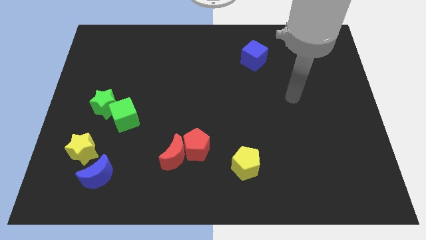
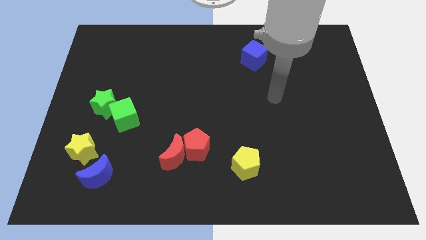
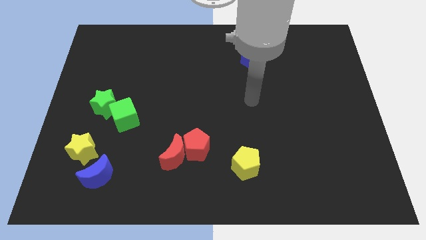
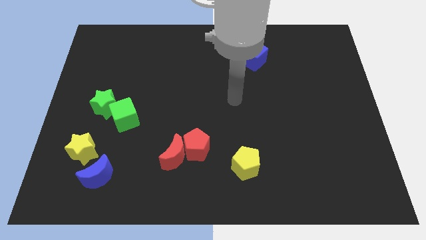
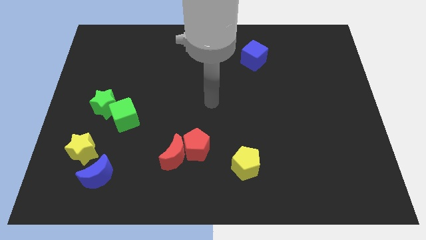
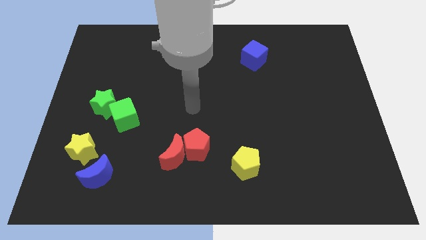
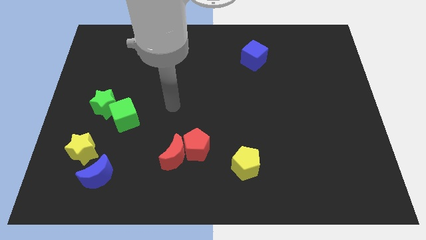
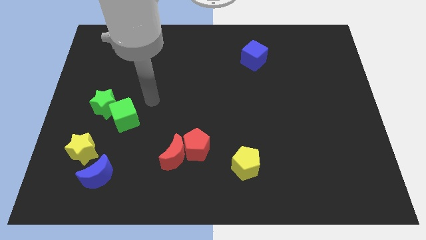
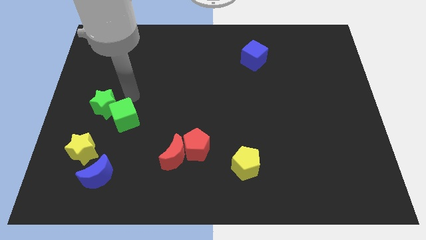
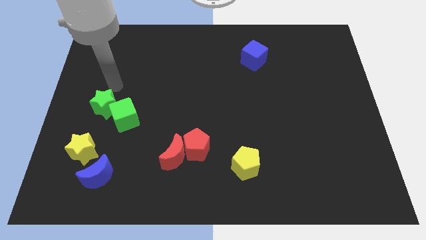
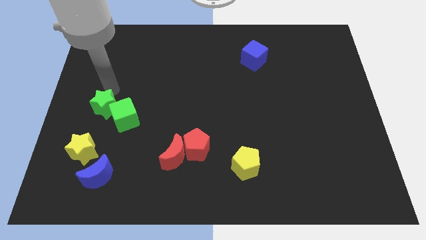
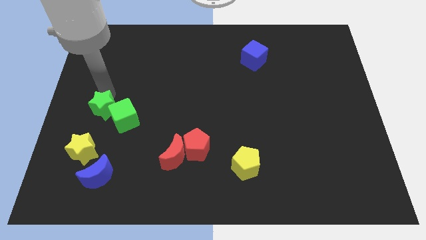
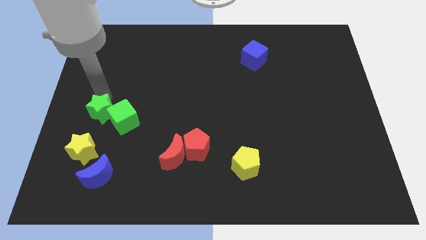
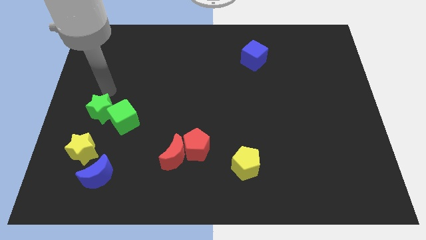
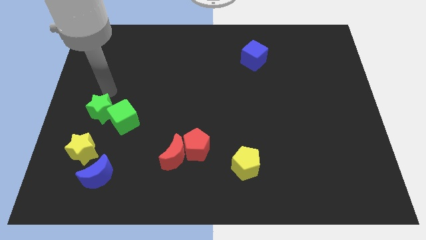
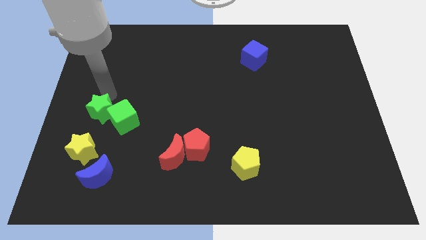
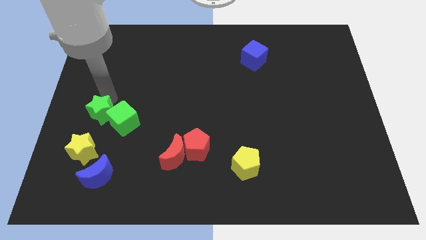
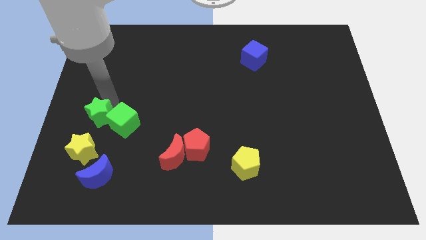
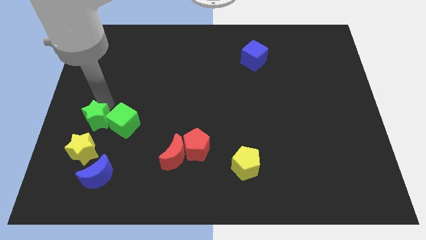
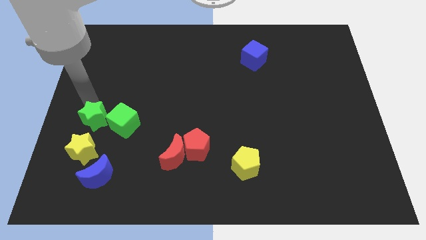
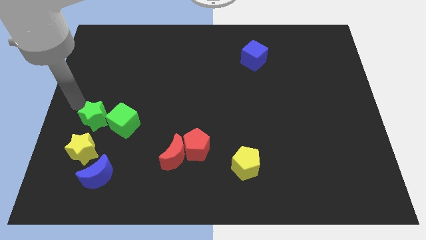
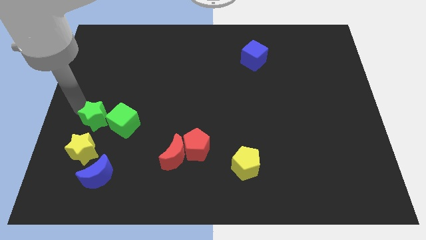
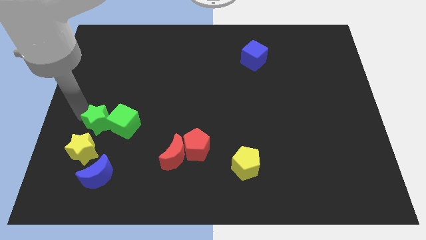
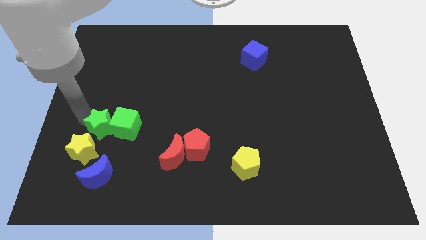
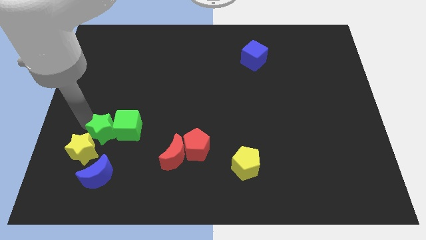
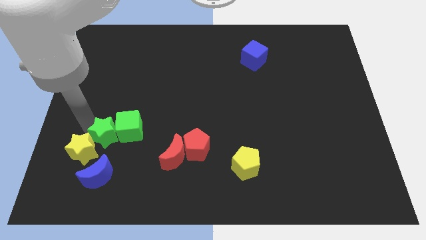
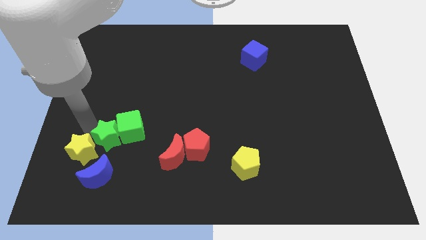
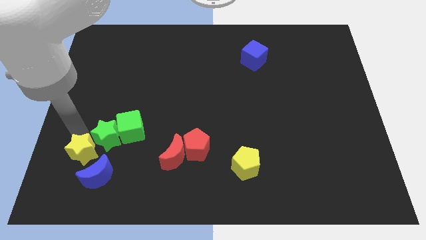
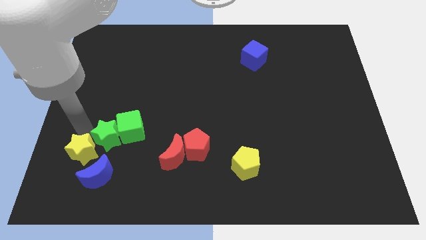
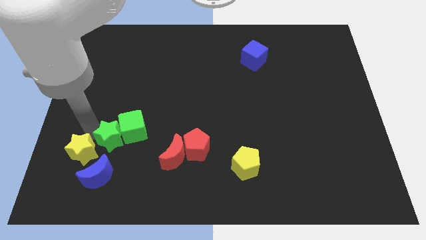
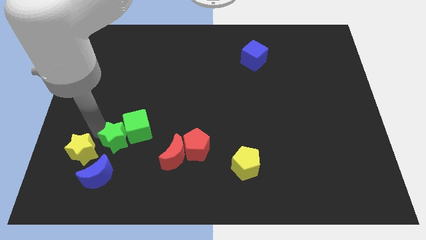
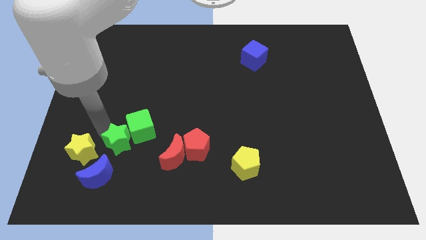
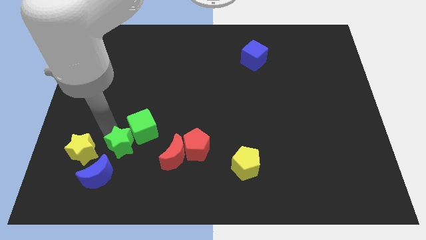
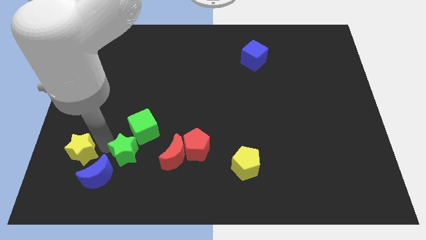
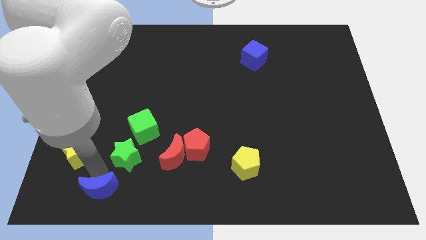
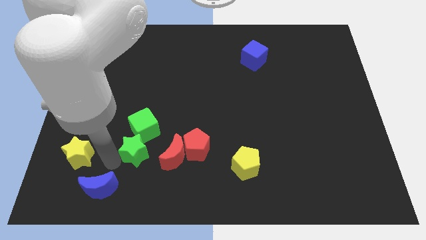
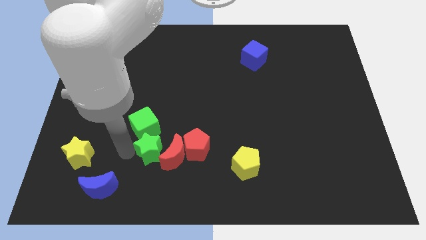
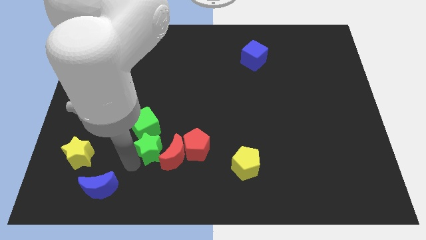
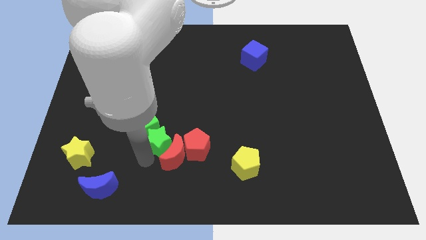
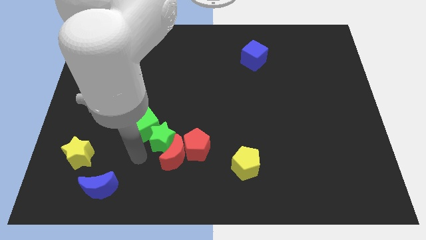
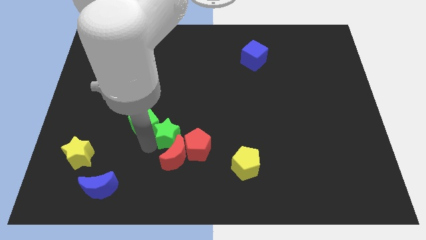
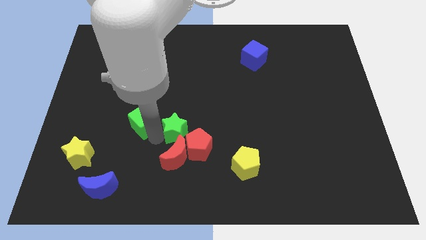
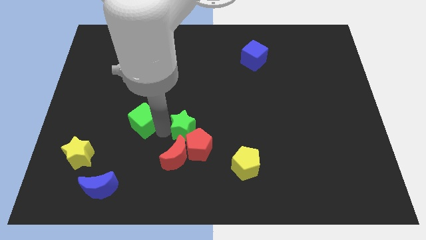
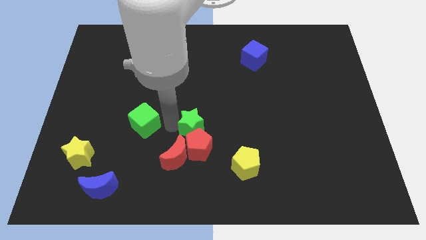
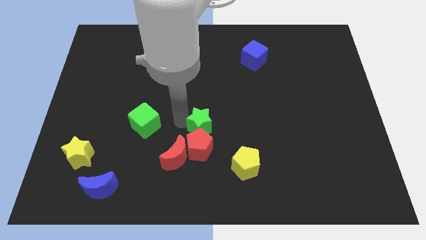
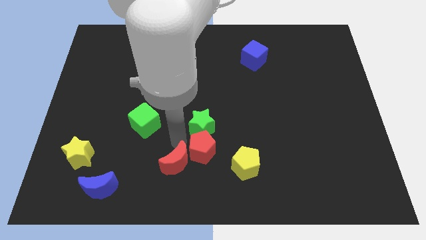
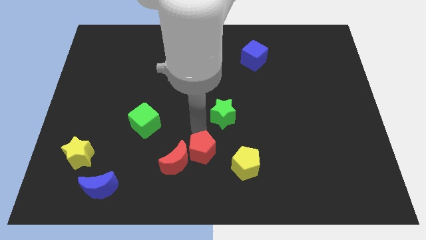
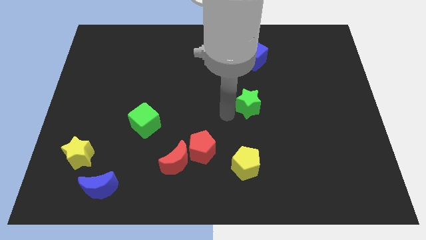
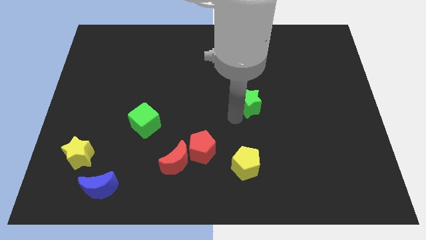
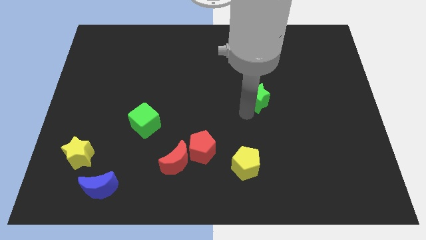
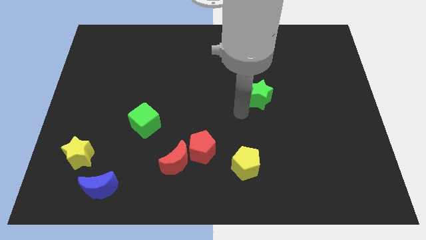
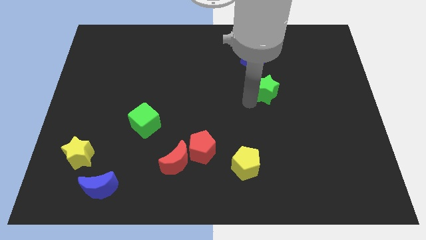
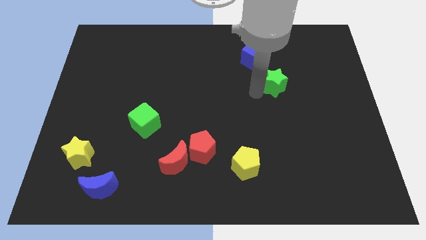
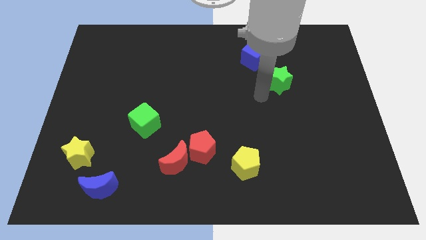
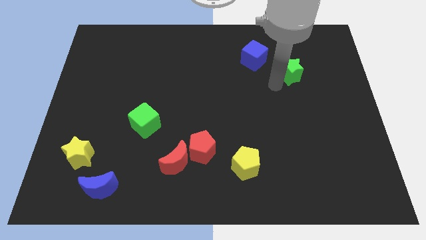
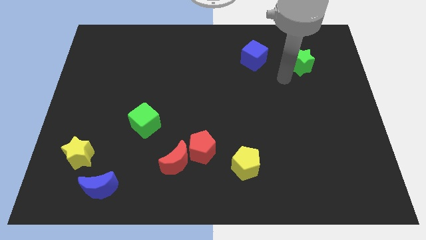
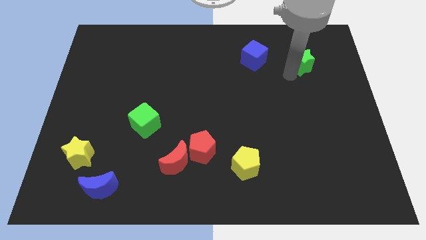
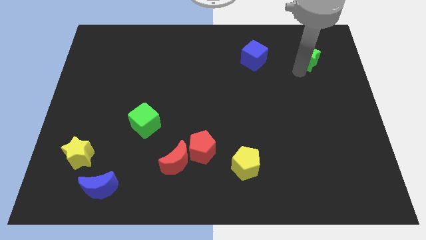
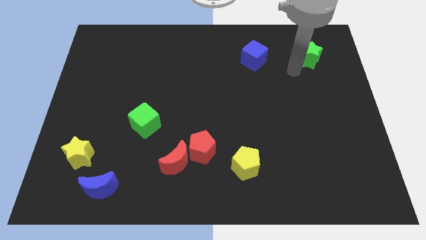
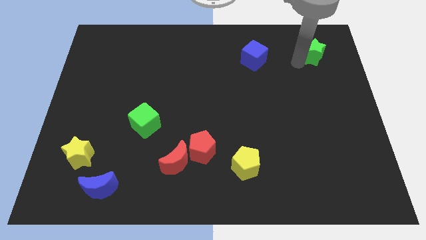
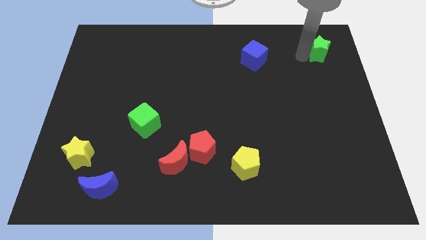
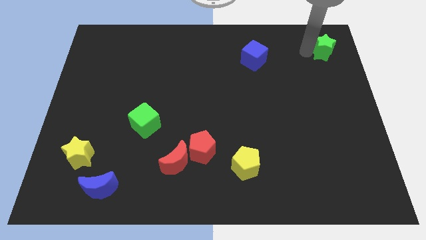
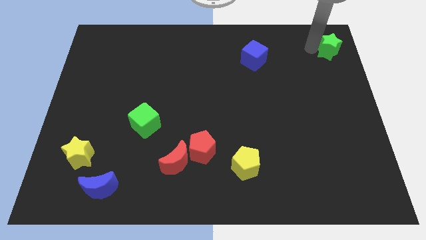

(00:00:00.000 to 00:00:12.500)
push the green star to the top right corner

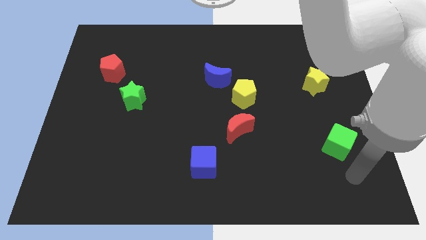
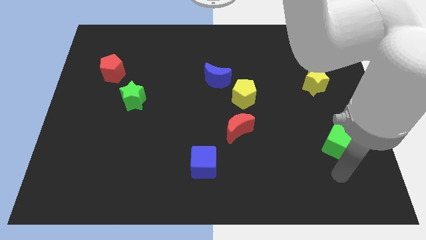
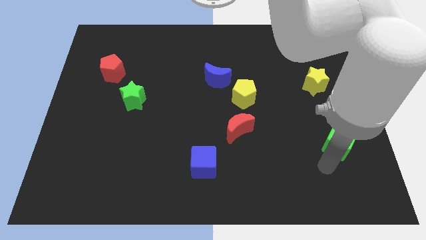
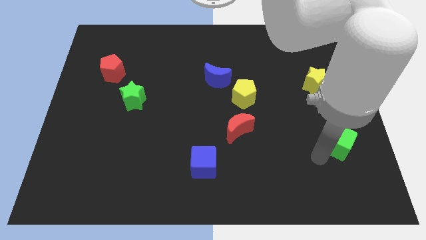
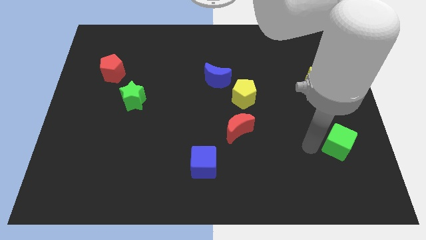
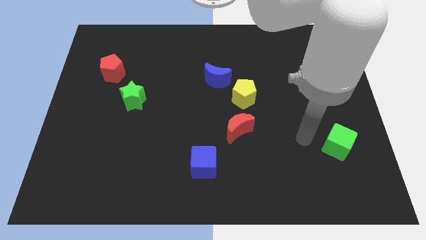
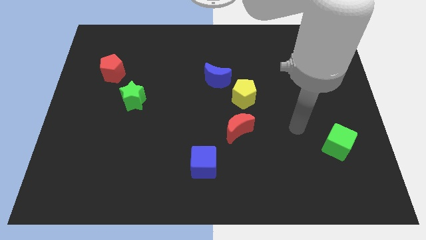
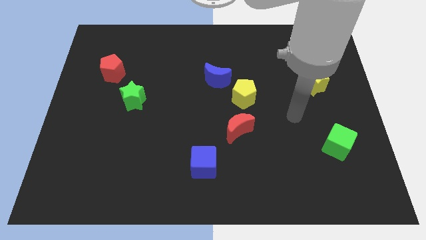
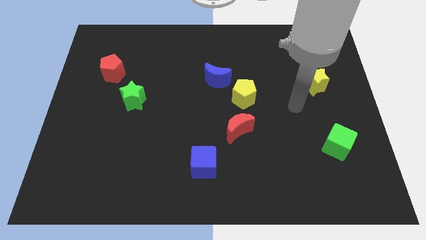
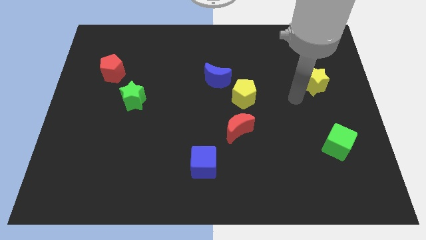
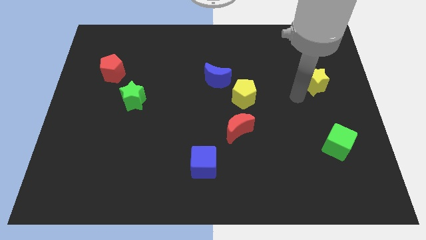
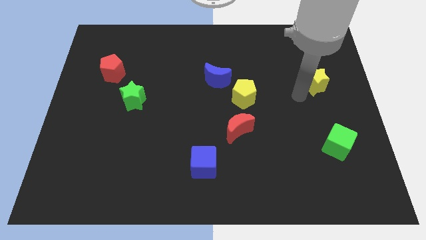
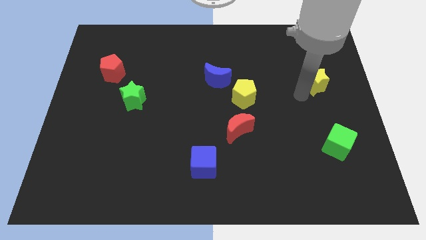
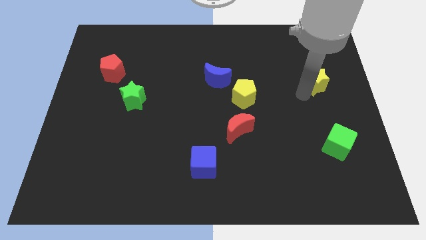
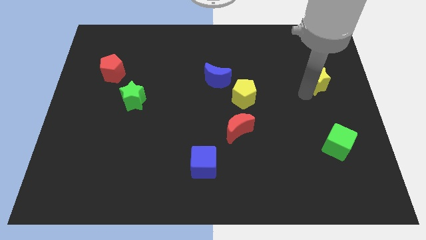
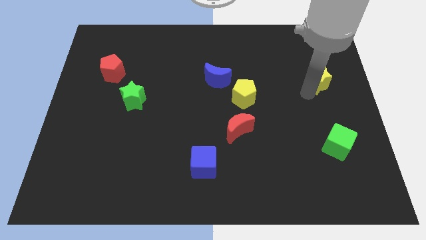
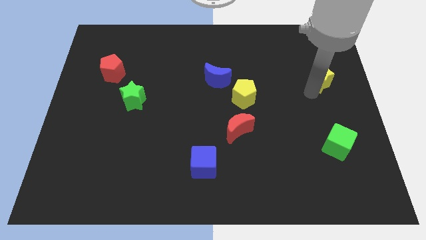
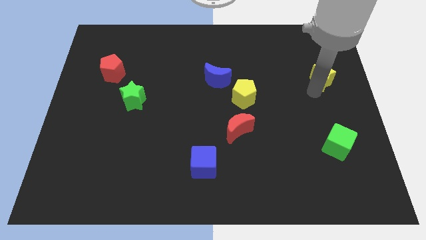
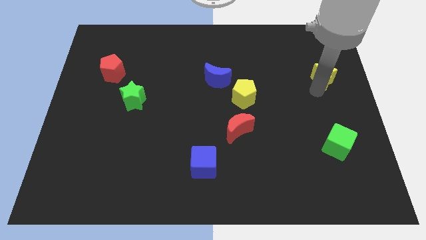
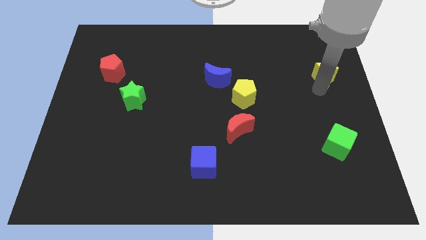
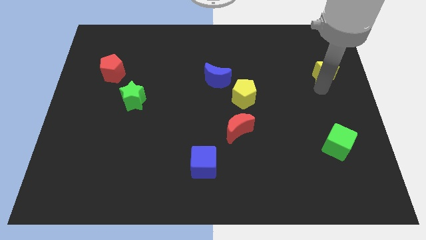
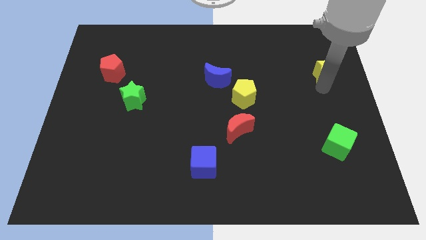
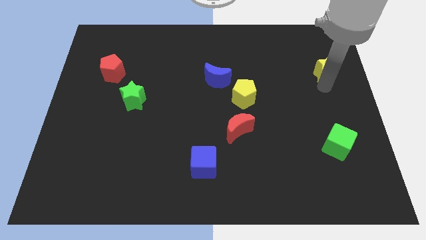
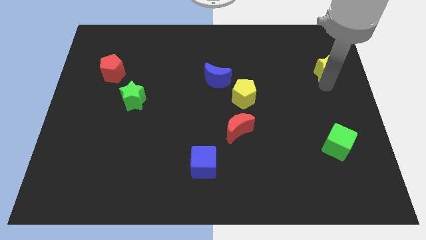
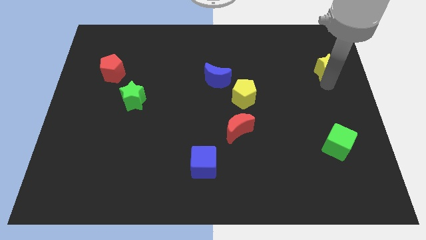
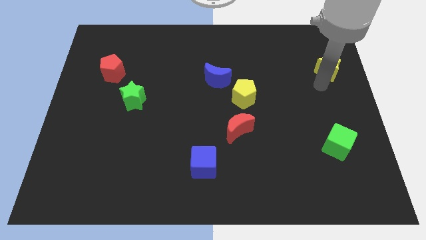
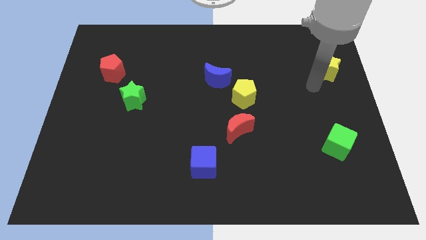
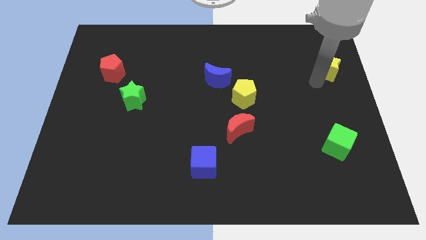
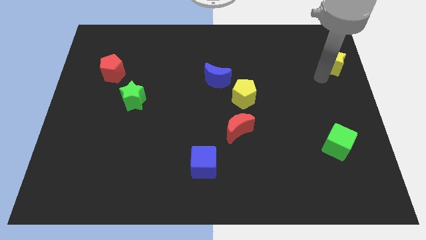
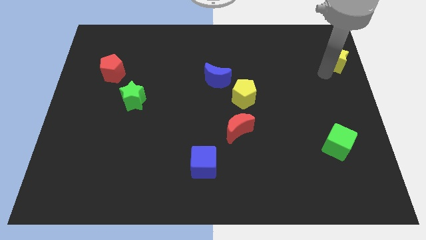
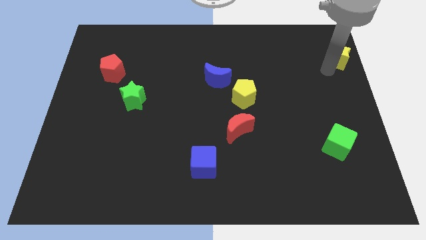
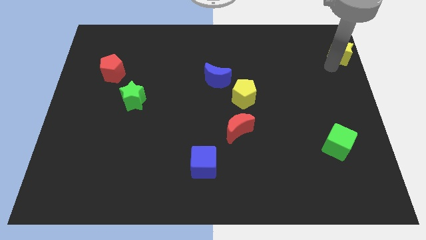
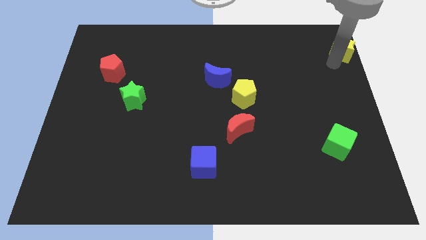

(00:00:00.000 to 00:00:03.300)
move the yellow star to the top right of the board
